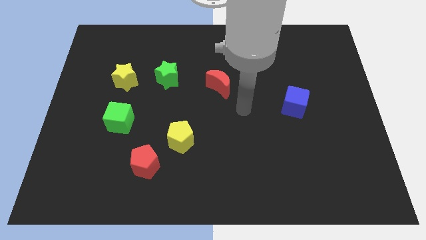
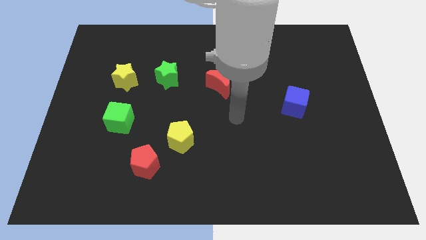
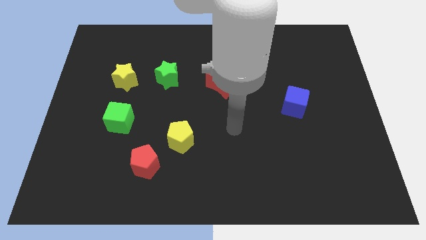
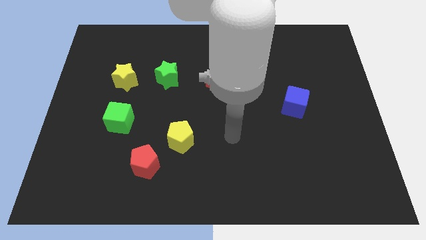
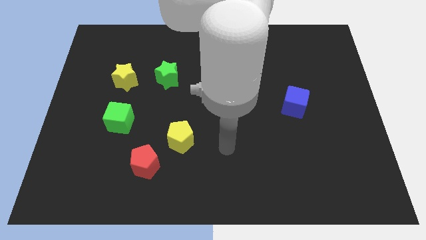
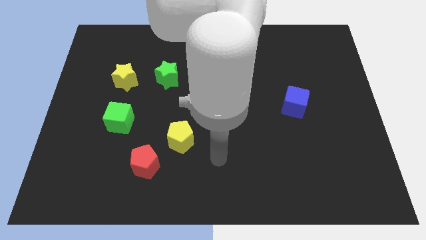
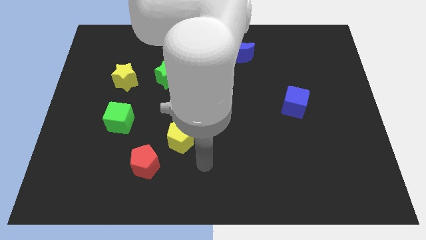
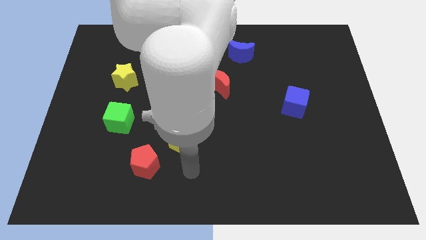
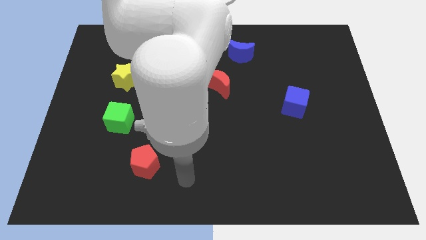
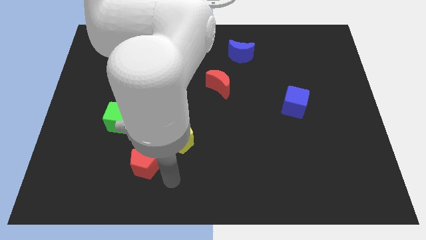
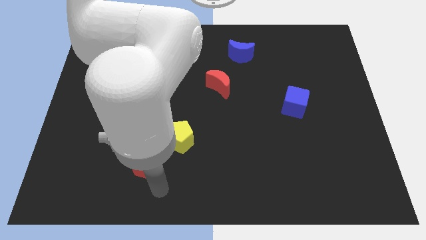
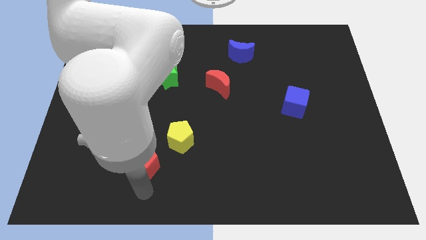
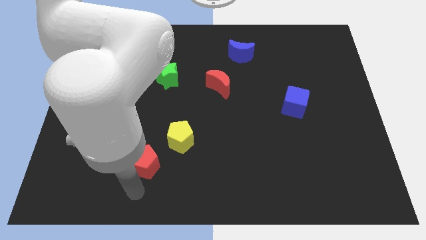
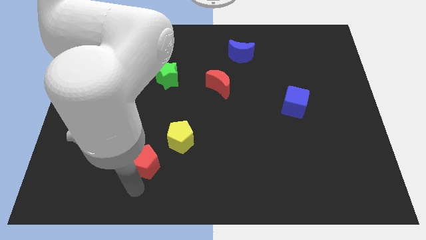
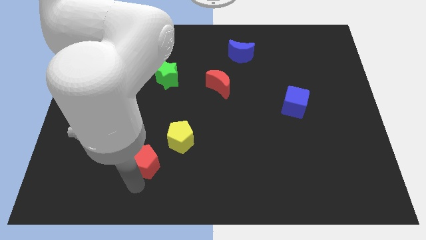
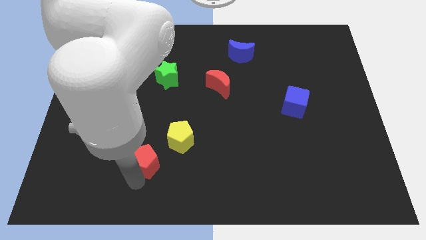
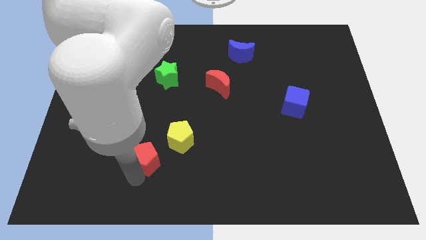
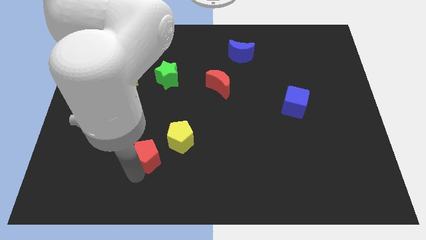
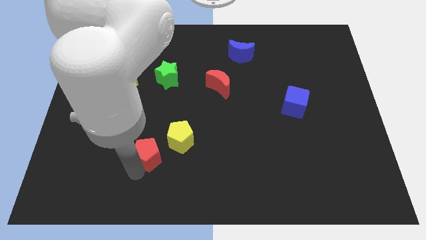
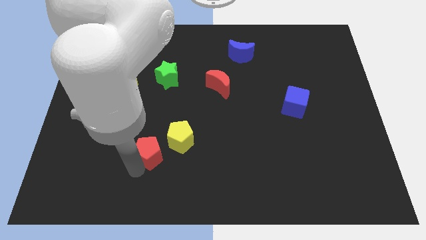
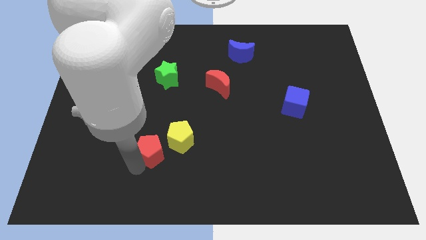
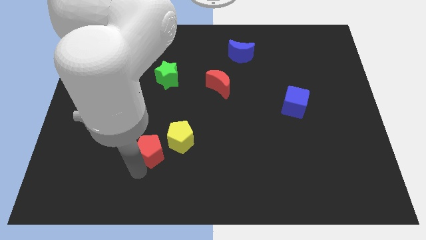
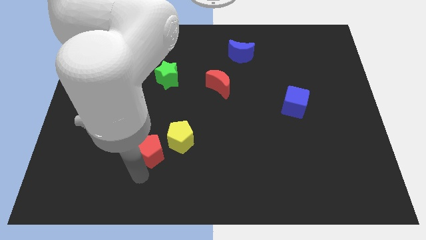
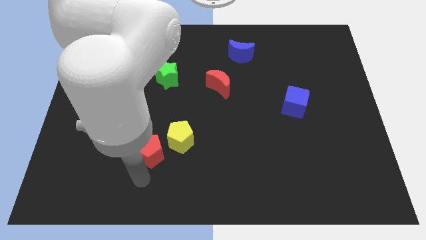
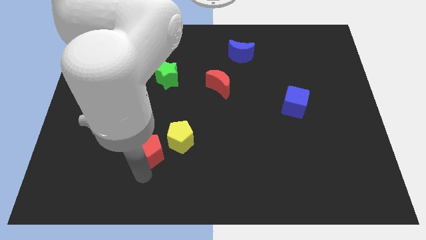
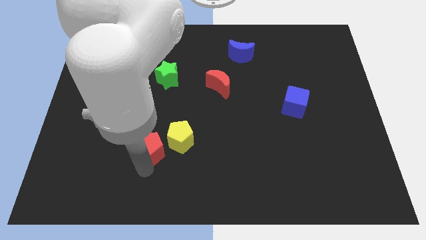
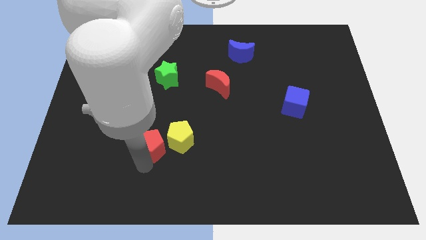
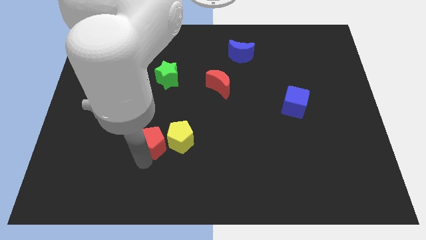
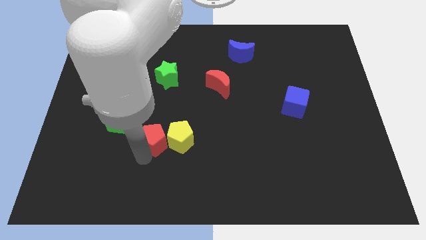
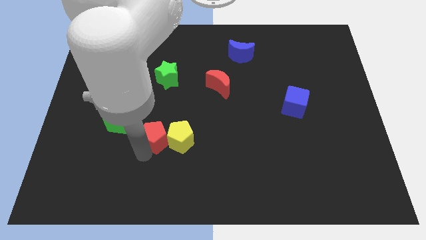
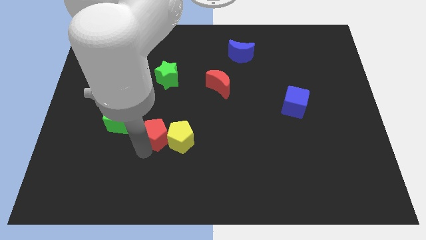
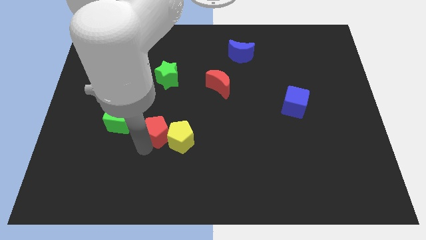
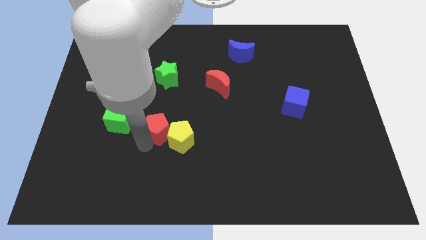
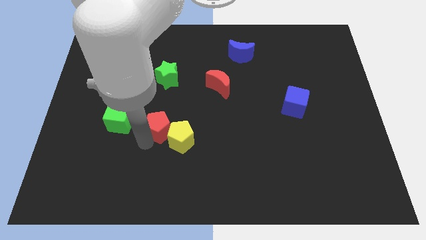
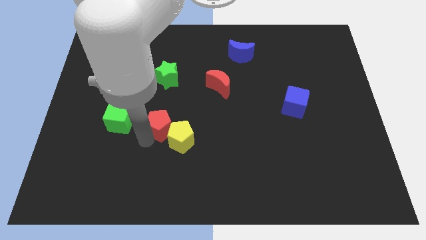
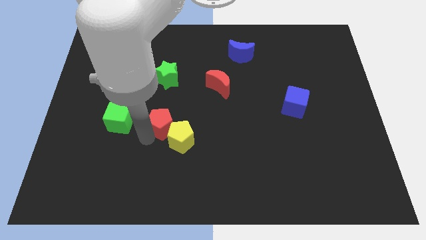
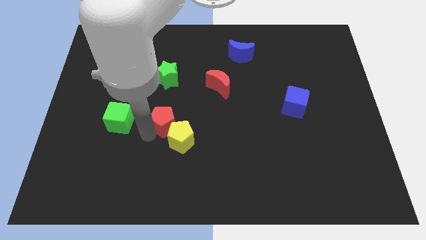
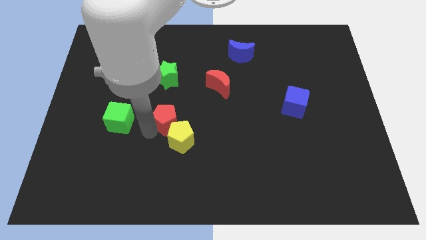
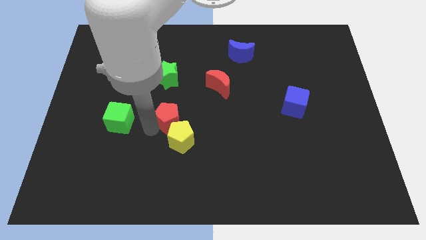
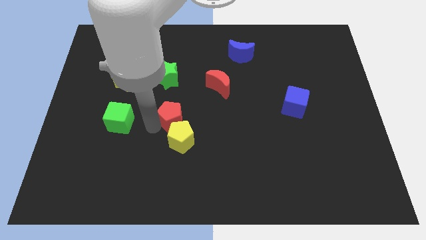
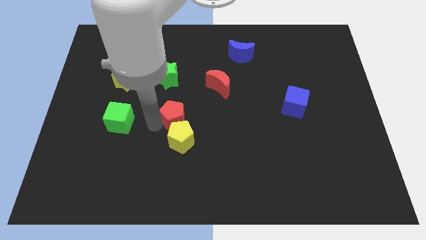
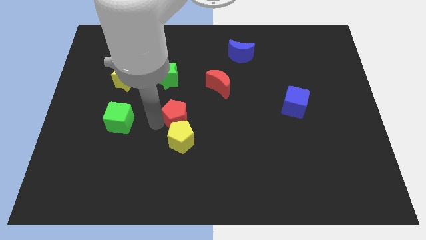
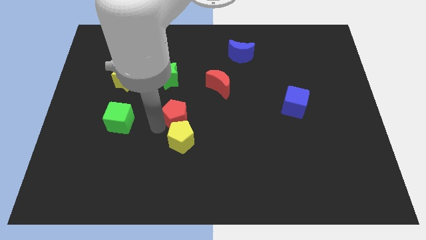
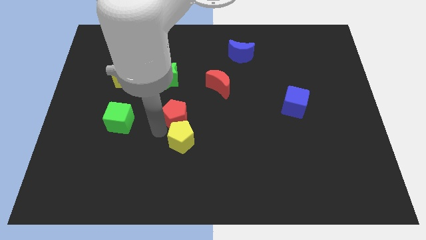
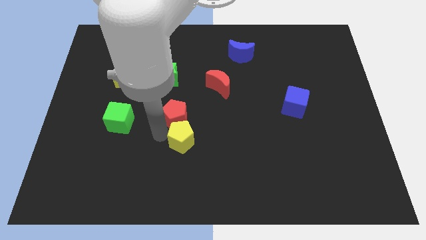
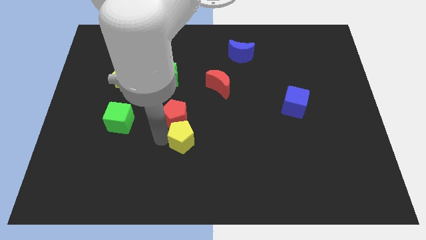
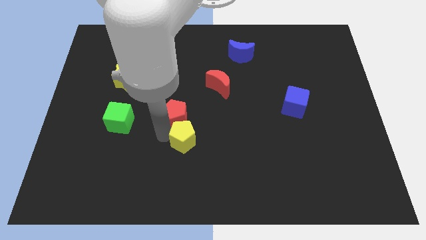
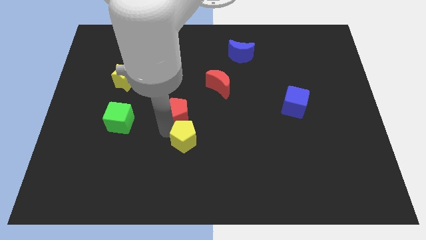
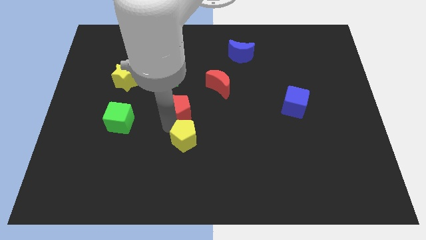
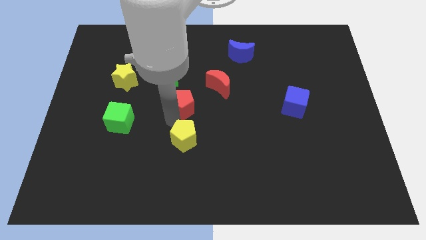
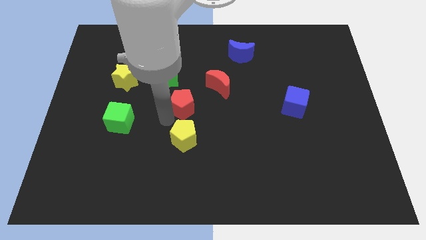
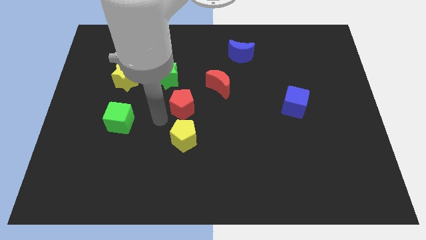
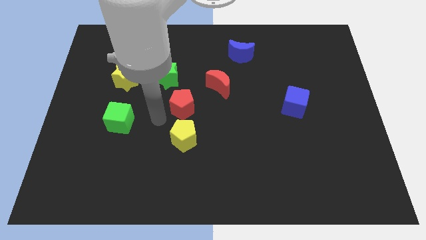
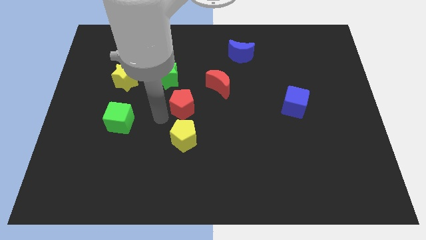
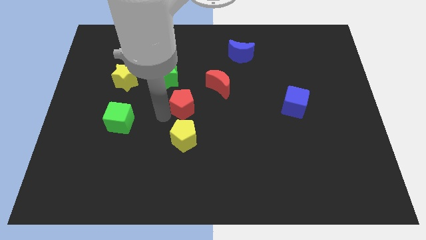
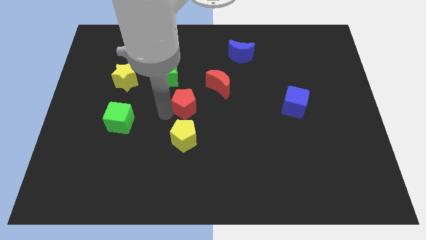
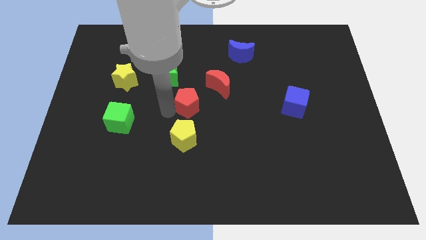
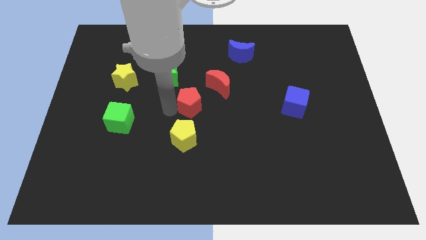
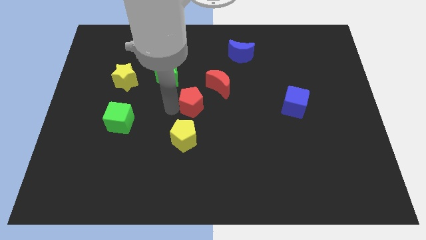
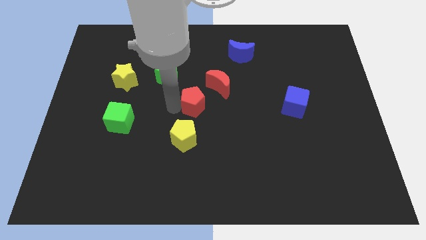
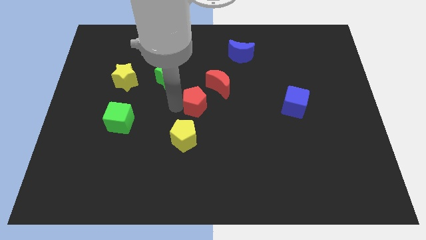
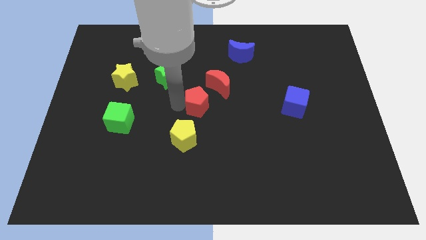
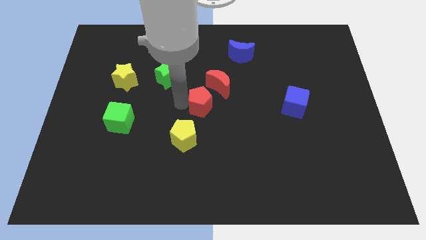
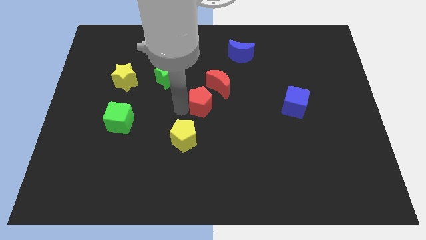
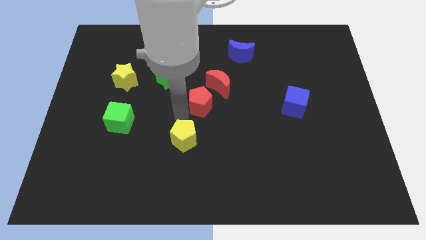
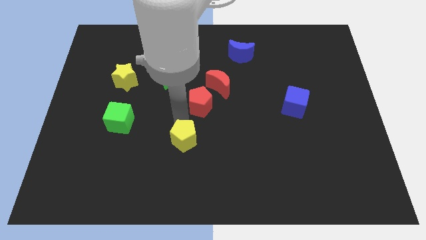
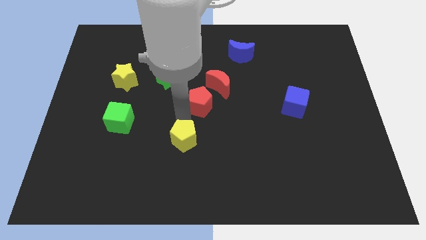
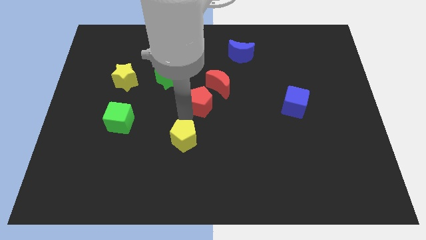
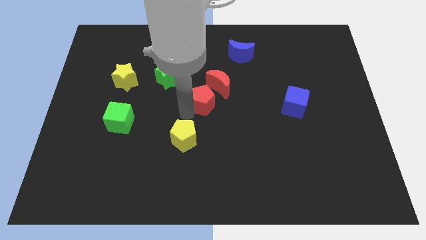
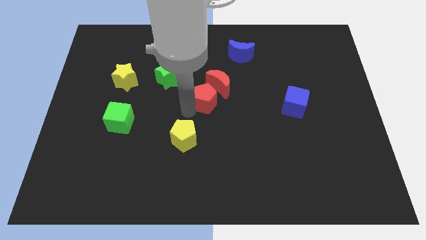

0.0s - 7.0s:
slide the red pentagon close to the red moon

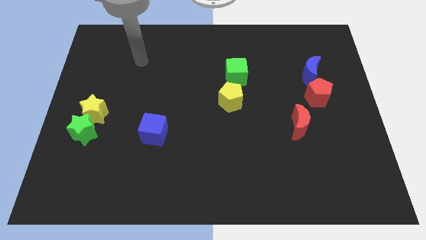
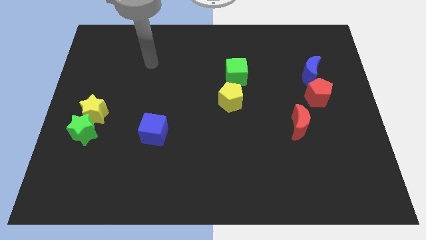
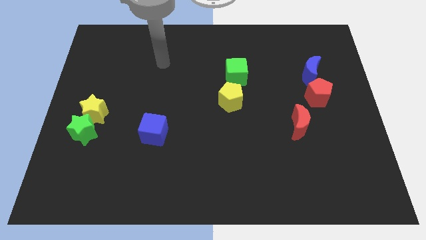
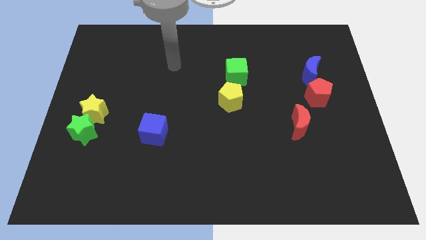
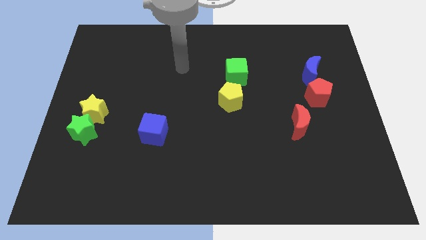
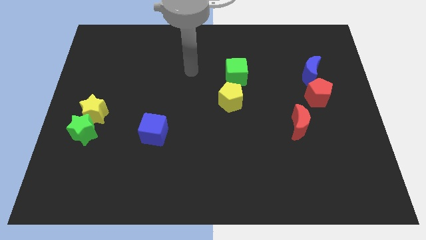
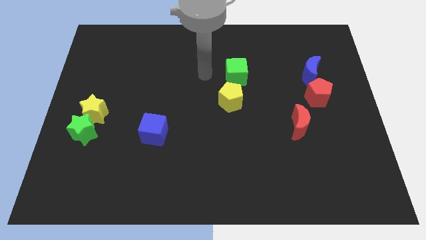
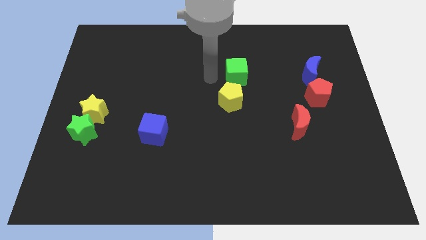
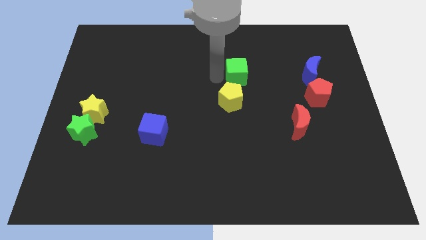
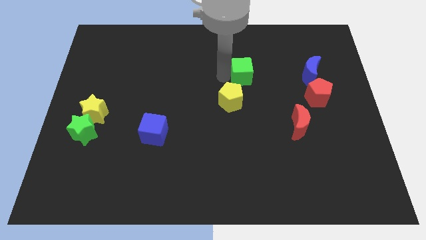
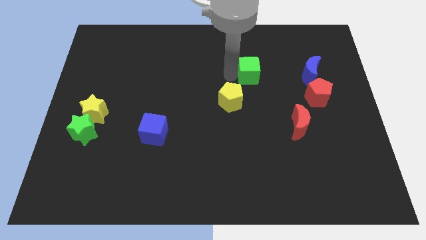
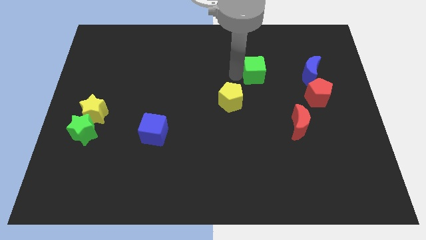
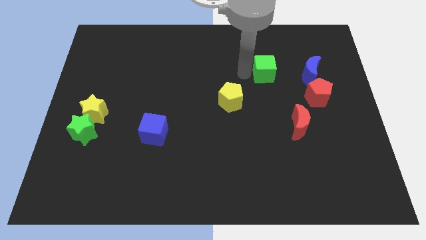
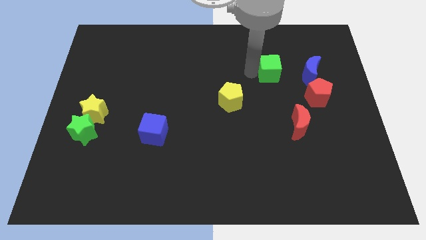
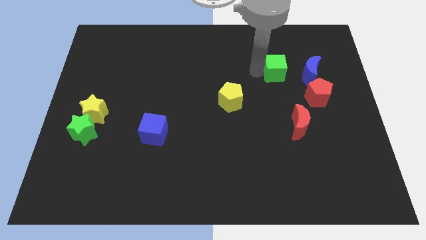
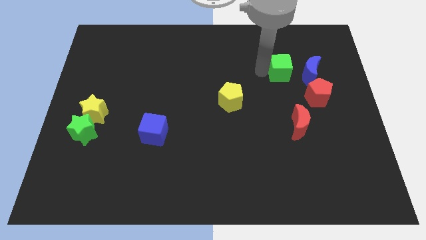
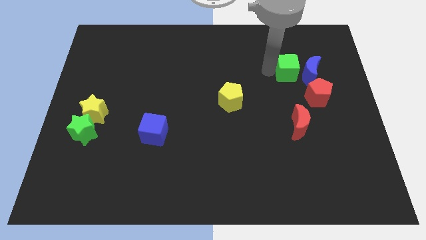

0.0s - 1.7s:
put the green cube next to the blue moon
